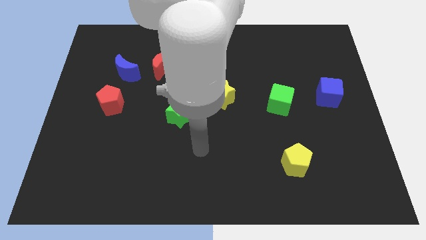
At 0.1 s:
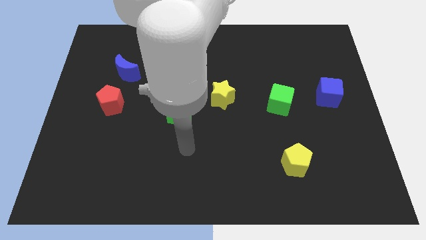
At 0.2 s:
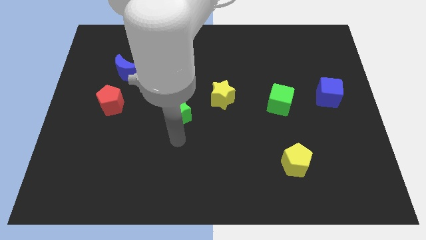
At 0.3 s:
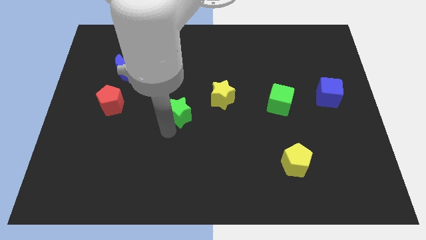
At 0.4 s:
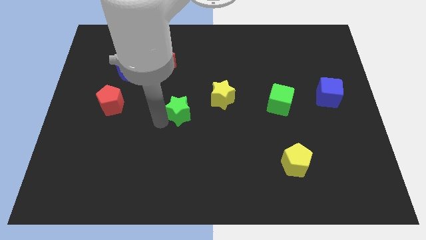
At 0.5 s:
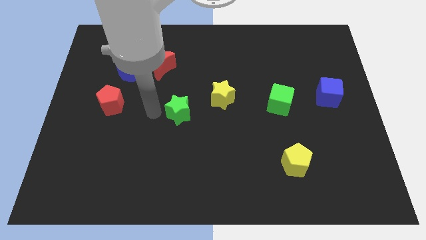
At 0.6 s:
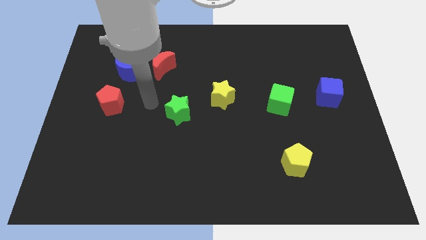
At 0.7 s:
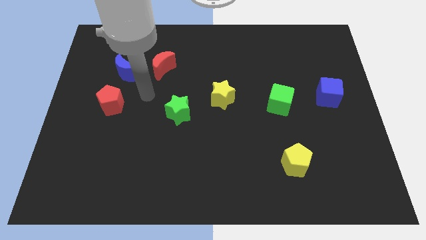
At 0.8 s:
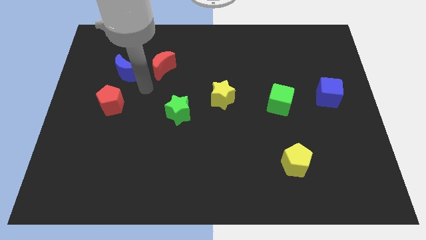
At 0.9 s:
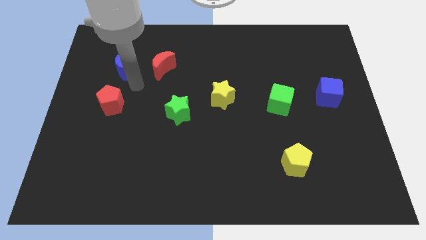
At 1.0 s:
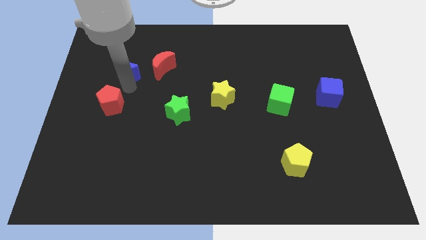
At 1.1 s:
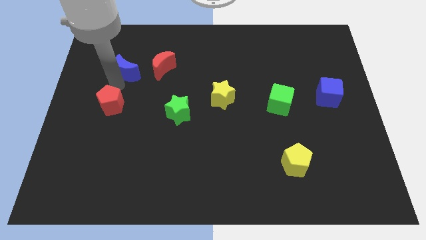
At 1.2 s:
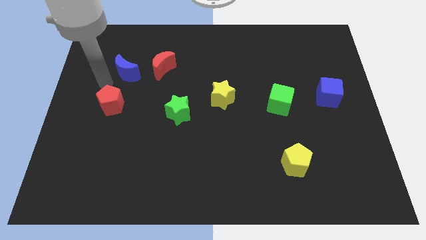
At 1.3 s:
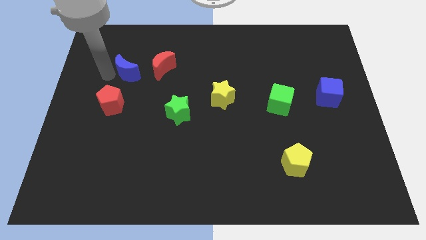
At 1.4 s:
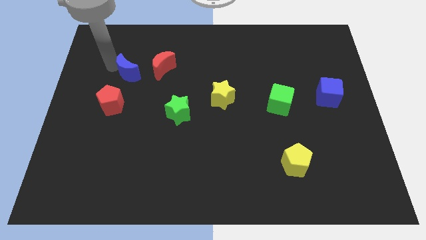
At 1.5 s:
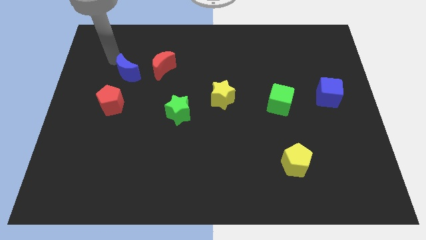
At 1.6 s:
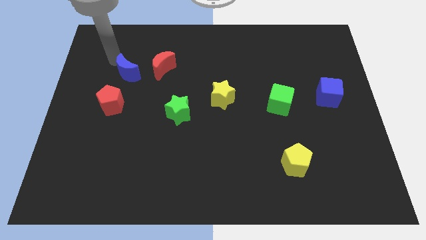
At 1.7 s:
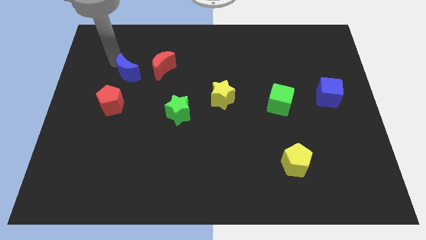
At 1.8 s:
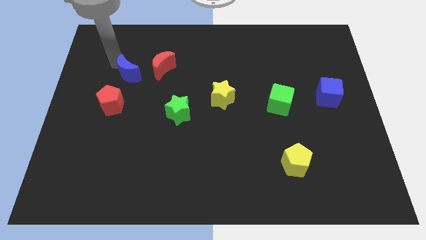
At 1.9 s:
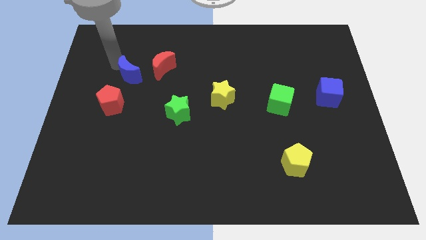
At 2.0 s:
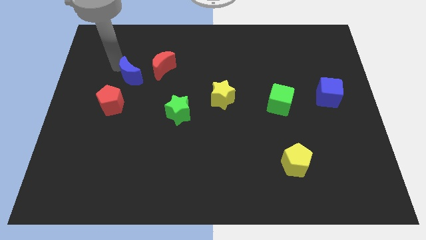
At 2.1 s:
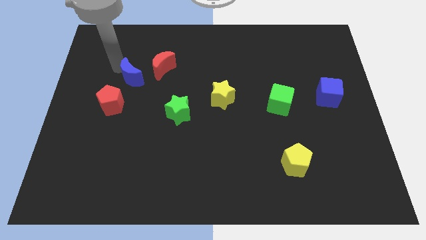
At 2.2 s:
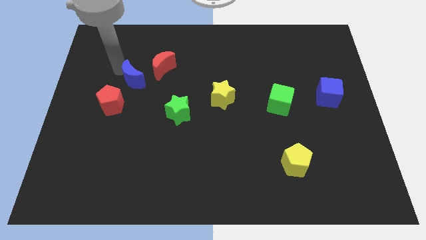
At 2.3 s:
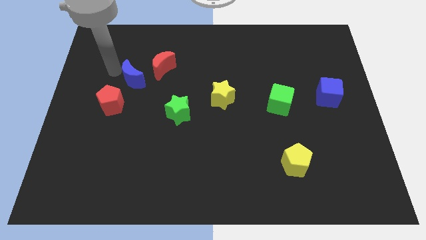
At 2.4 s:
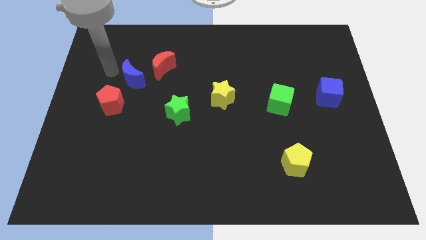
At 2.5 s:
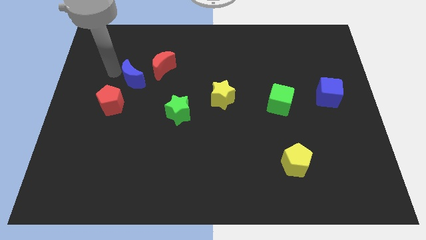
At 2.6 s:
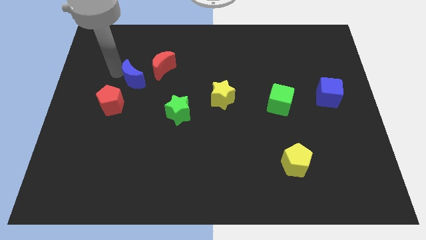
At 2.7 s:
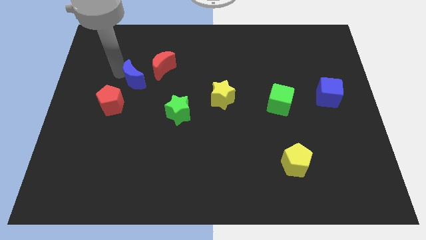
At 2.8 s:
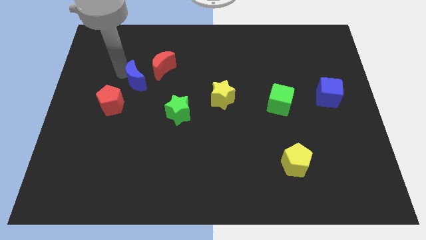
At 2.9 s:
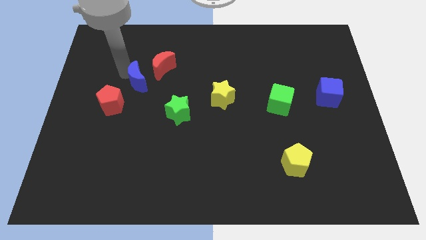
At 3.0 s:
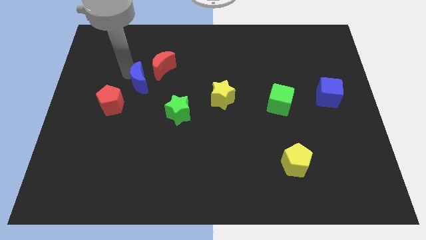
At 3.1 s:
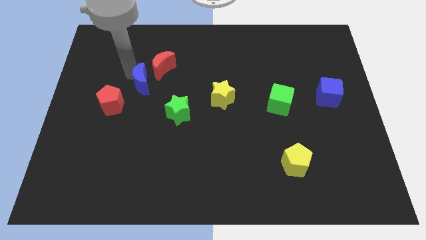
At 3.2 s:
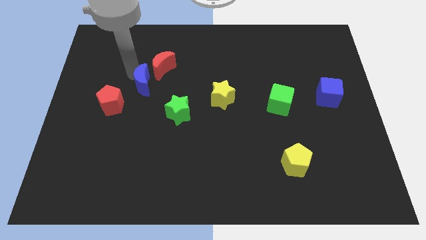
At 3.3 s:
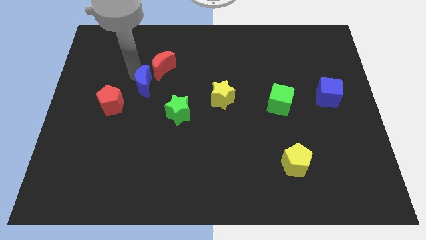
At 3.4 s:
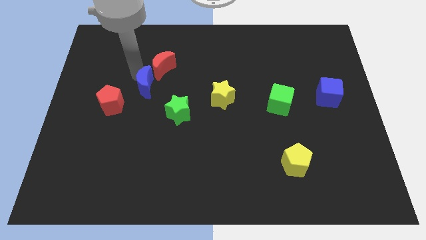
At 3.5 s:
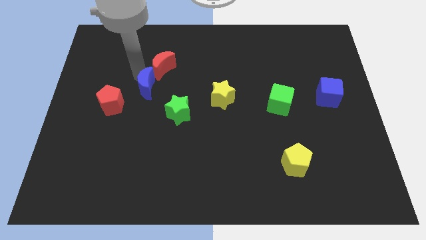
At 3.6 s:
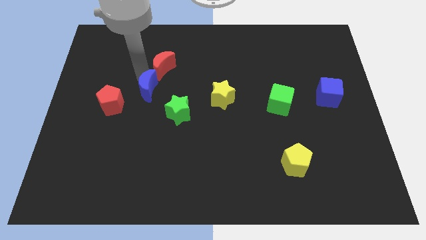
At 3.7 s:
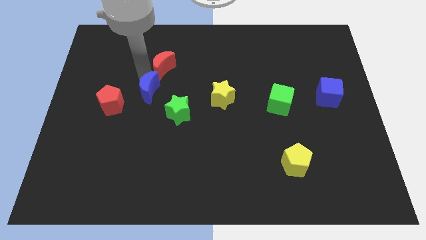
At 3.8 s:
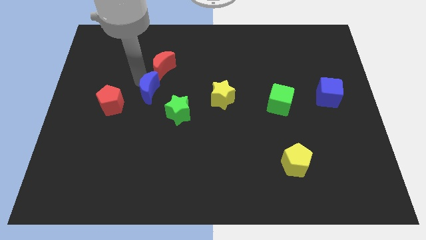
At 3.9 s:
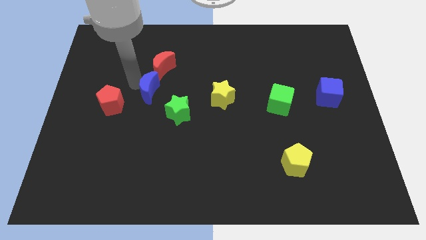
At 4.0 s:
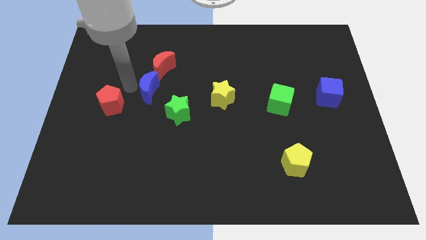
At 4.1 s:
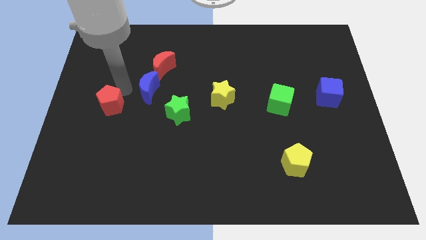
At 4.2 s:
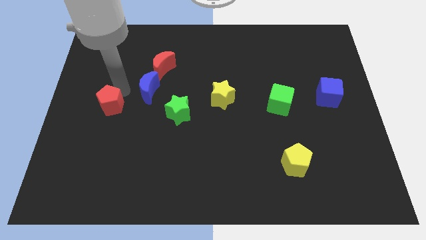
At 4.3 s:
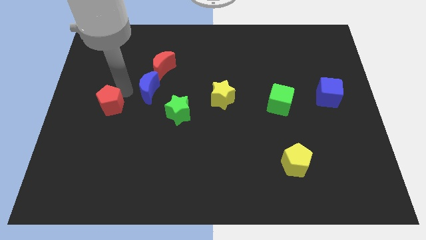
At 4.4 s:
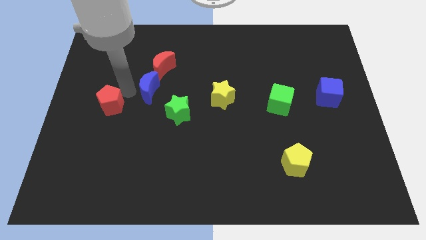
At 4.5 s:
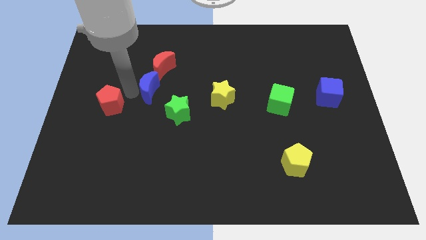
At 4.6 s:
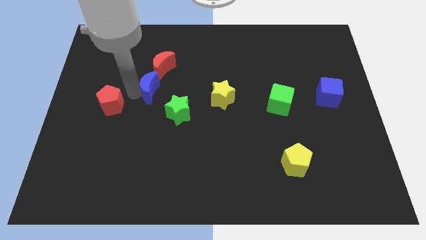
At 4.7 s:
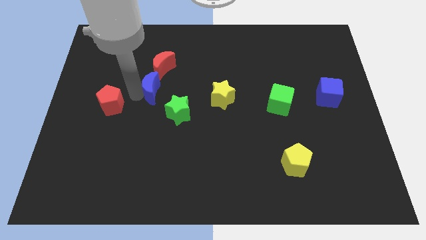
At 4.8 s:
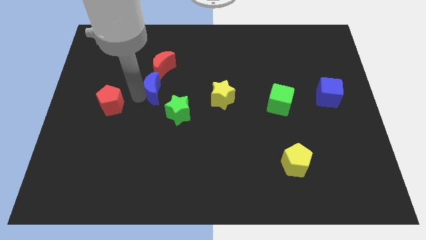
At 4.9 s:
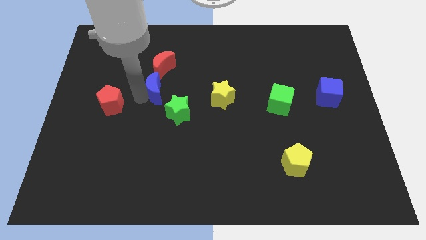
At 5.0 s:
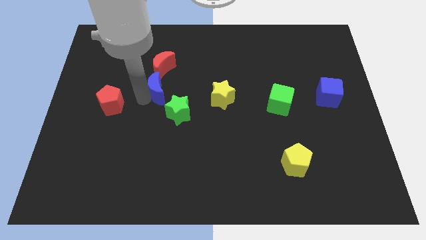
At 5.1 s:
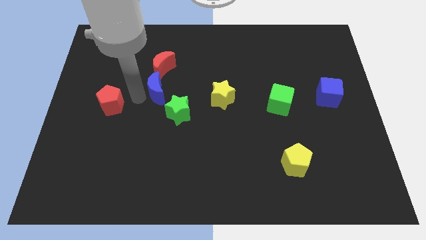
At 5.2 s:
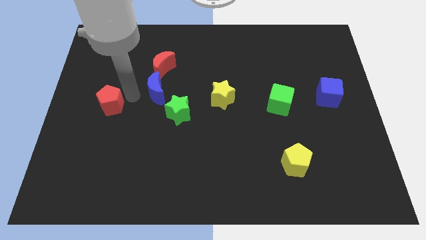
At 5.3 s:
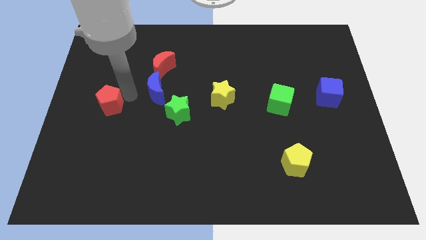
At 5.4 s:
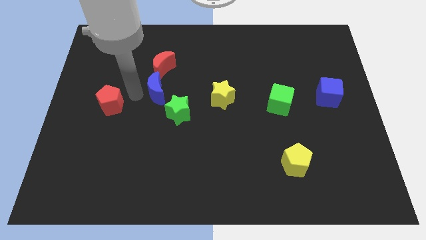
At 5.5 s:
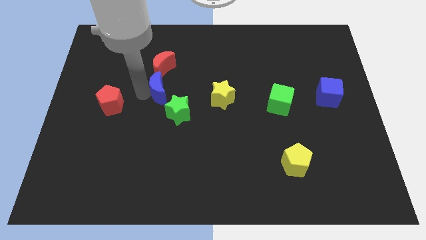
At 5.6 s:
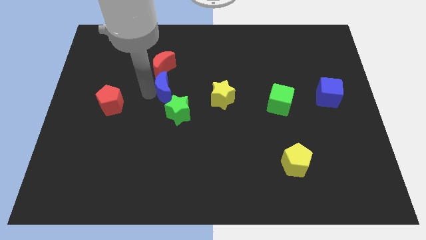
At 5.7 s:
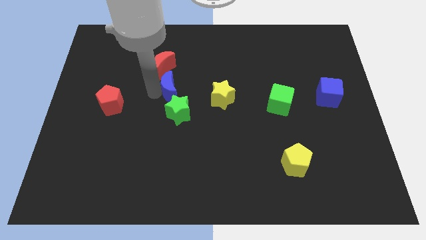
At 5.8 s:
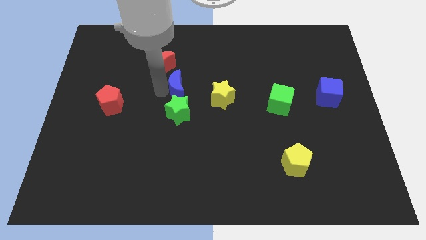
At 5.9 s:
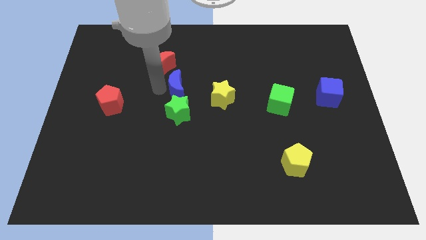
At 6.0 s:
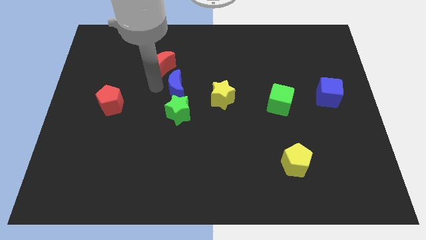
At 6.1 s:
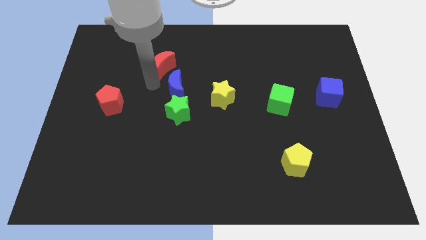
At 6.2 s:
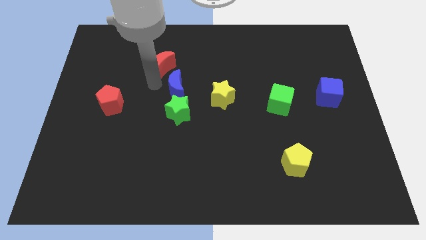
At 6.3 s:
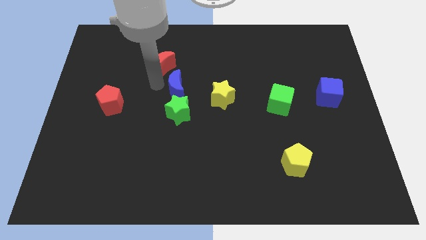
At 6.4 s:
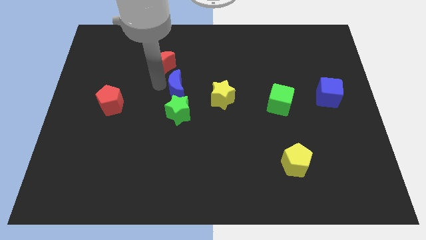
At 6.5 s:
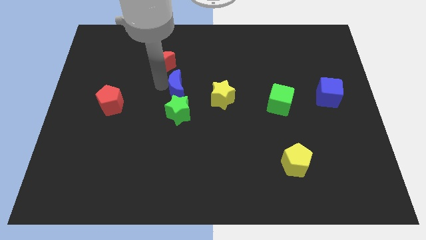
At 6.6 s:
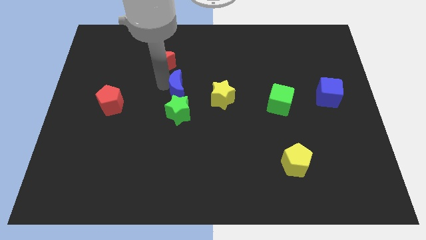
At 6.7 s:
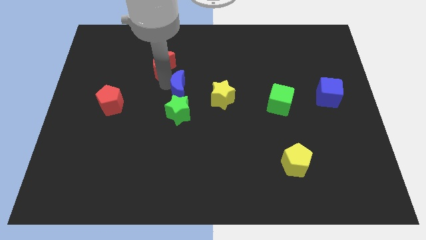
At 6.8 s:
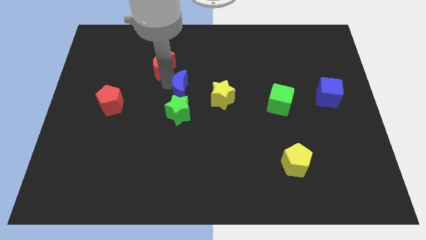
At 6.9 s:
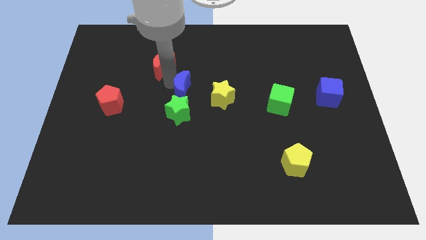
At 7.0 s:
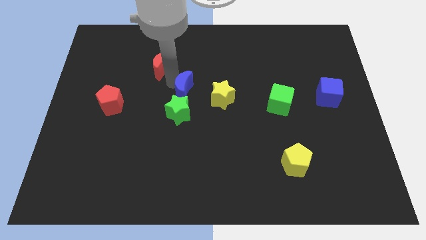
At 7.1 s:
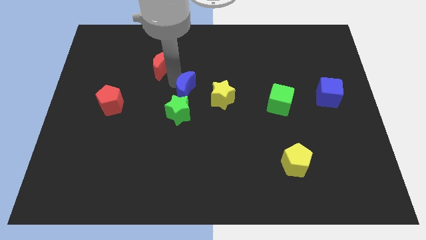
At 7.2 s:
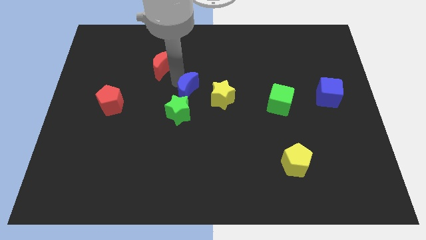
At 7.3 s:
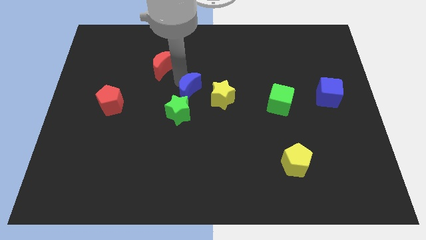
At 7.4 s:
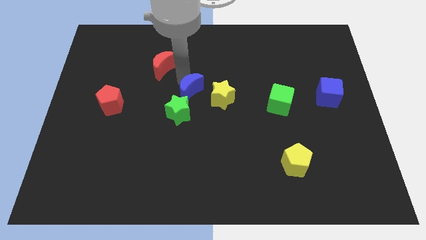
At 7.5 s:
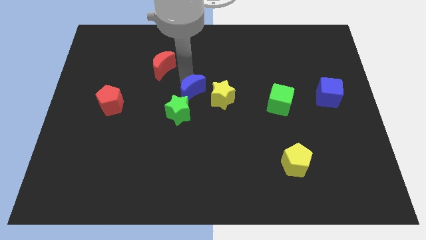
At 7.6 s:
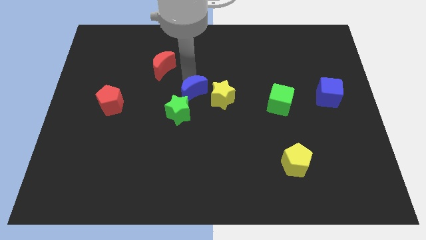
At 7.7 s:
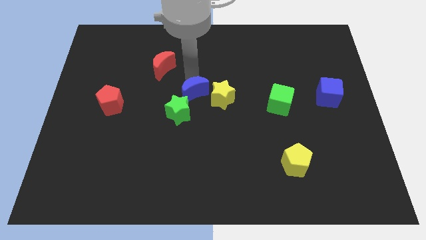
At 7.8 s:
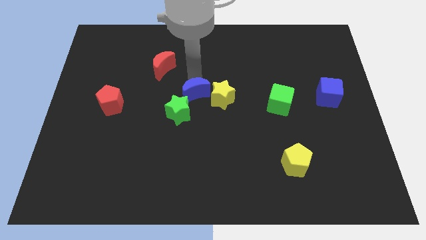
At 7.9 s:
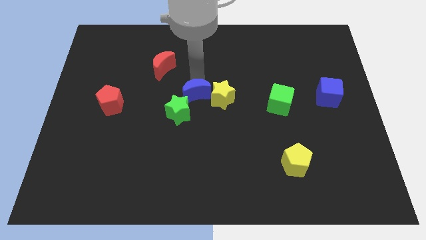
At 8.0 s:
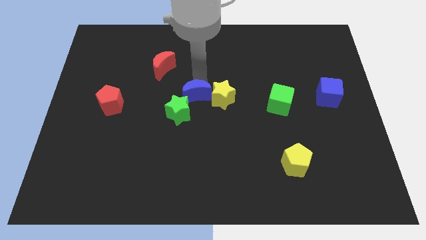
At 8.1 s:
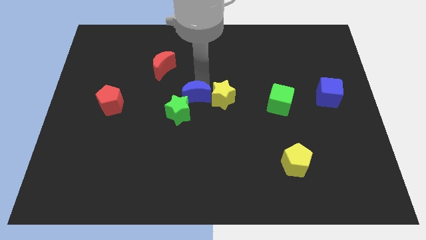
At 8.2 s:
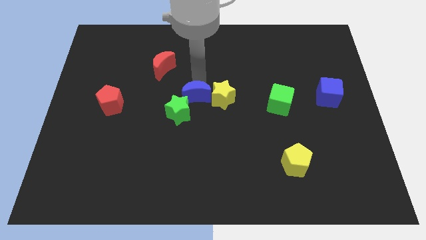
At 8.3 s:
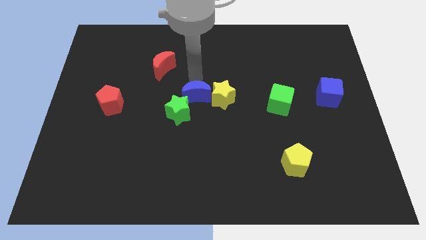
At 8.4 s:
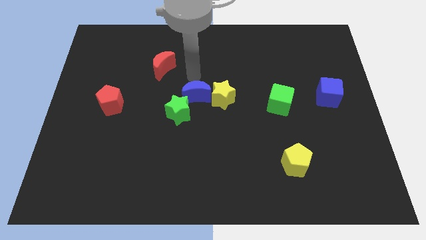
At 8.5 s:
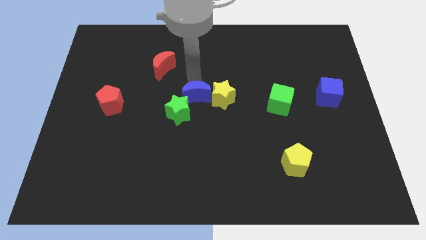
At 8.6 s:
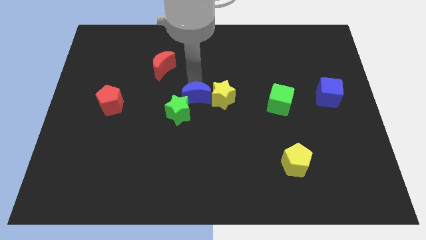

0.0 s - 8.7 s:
move the blue moon diagonally down and to the left of the yellow star
